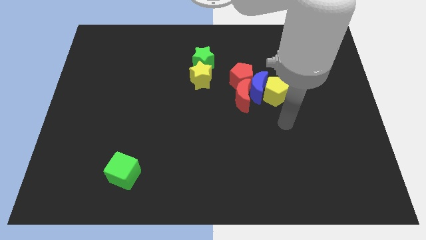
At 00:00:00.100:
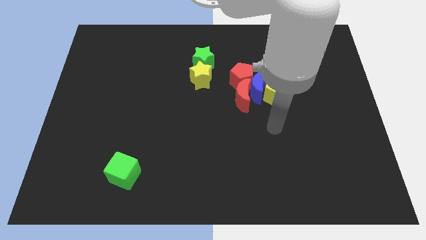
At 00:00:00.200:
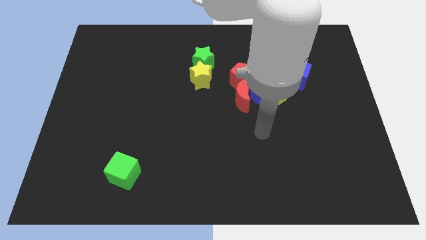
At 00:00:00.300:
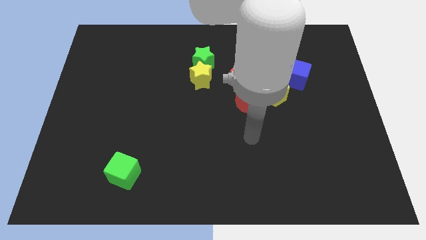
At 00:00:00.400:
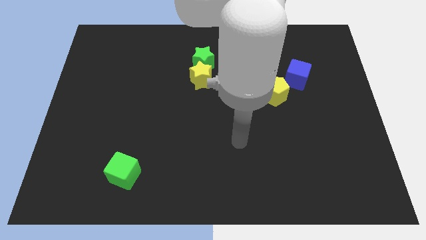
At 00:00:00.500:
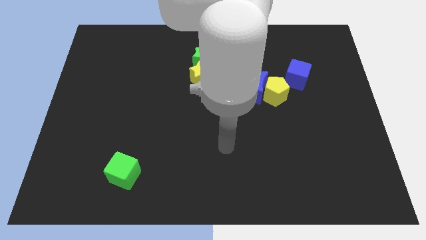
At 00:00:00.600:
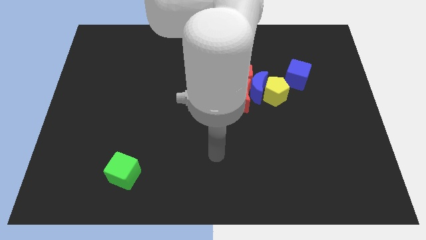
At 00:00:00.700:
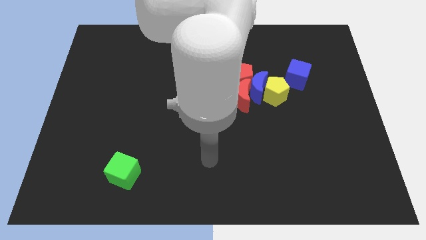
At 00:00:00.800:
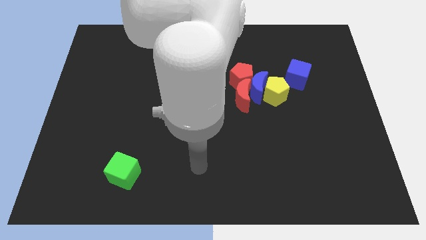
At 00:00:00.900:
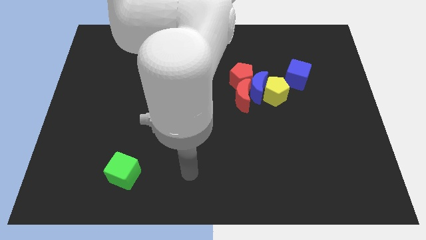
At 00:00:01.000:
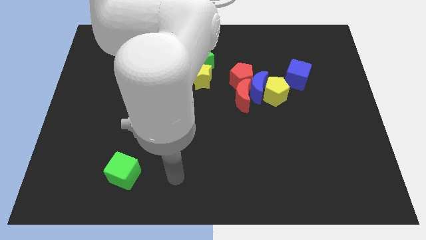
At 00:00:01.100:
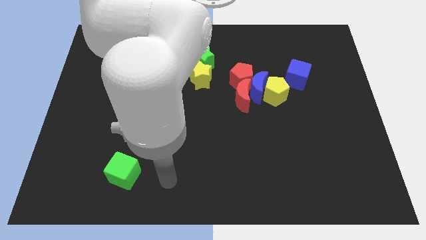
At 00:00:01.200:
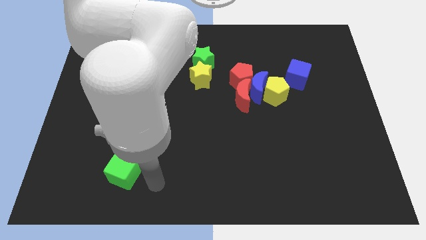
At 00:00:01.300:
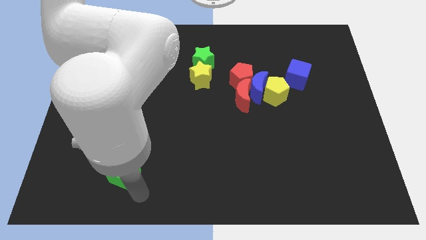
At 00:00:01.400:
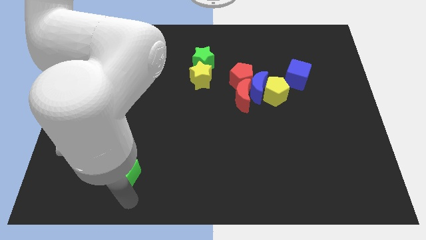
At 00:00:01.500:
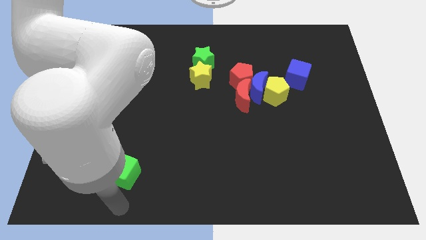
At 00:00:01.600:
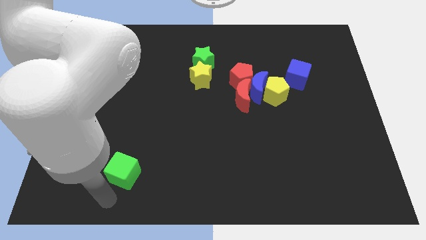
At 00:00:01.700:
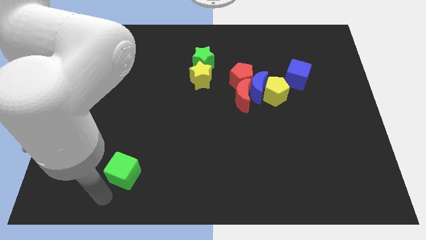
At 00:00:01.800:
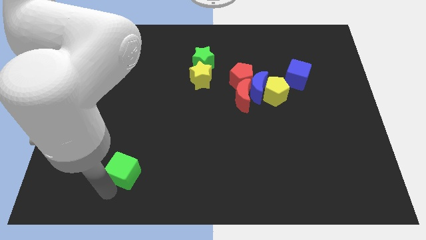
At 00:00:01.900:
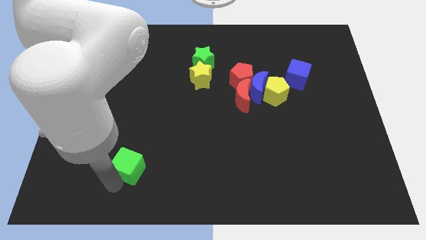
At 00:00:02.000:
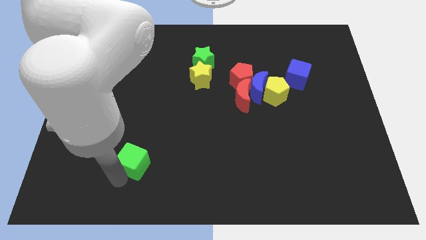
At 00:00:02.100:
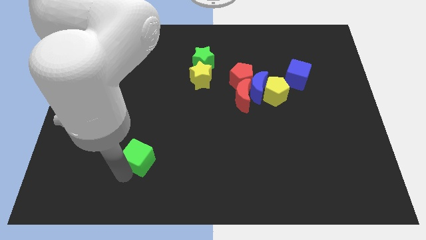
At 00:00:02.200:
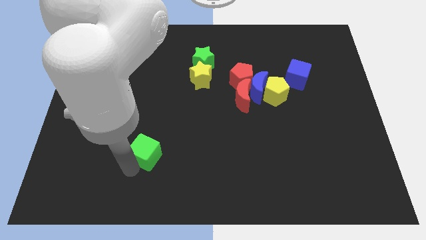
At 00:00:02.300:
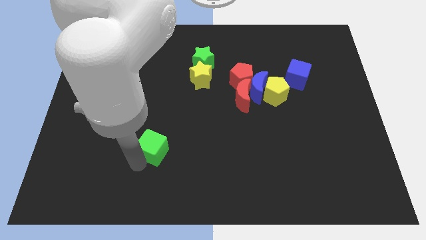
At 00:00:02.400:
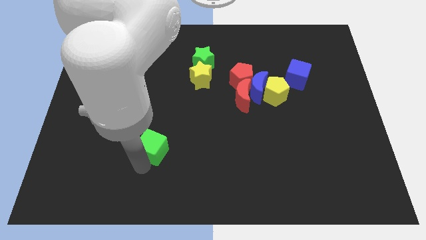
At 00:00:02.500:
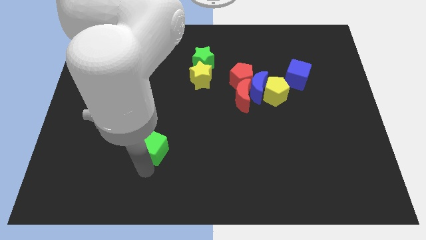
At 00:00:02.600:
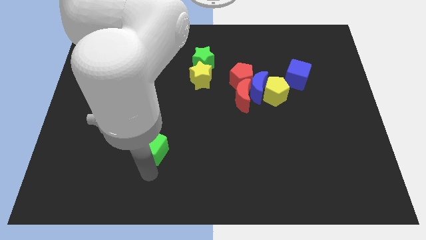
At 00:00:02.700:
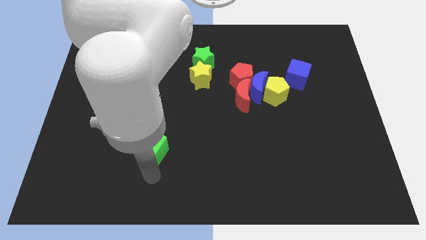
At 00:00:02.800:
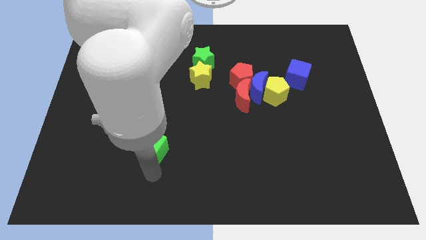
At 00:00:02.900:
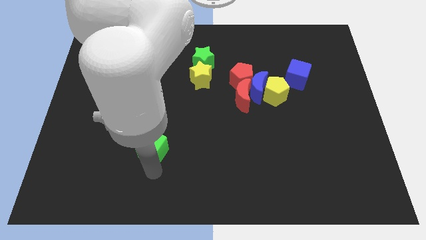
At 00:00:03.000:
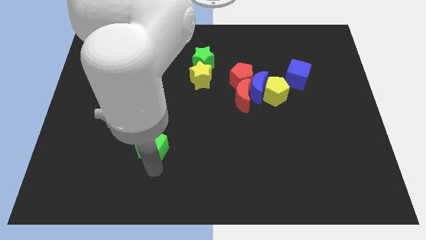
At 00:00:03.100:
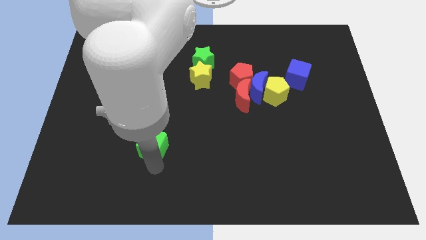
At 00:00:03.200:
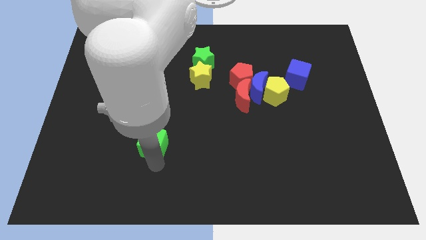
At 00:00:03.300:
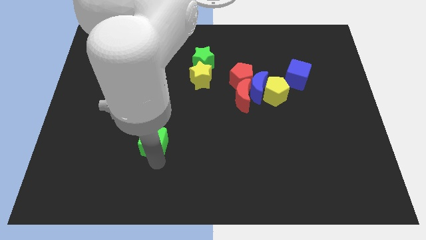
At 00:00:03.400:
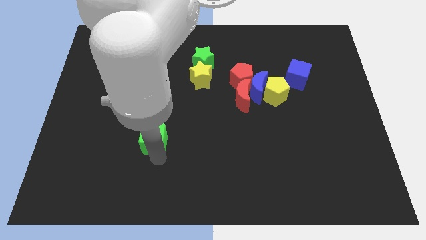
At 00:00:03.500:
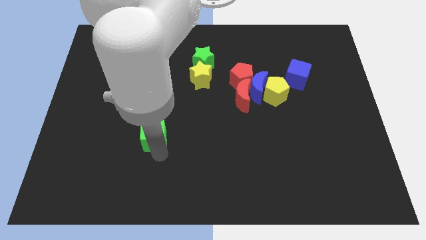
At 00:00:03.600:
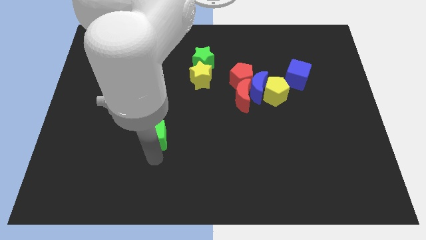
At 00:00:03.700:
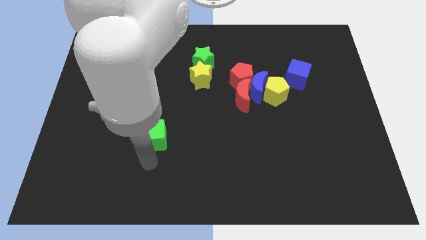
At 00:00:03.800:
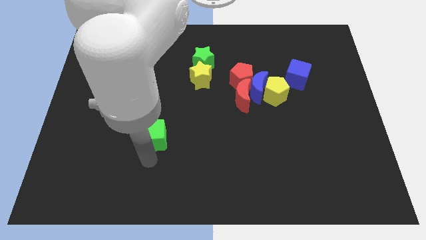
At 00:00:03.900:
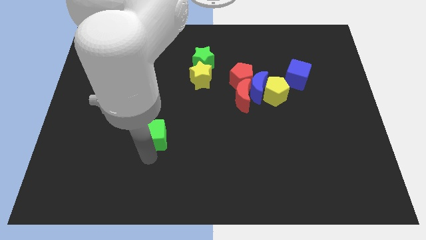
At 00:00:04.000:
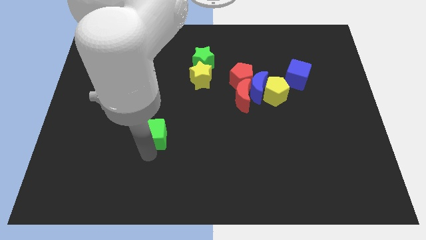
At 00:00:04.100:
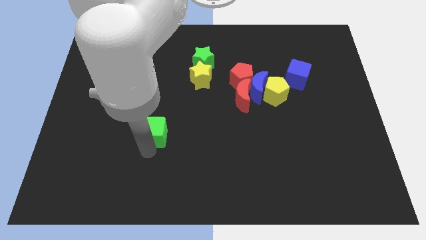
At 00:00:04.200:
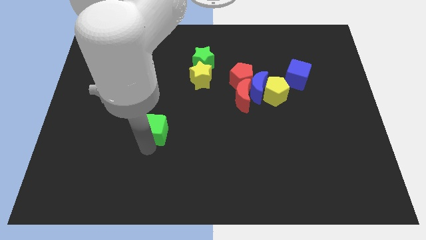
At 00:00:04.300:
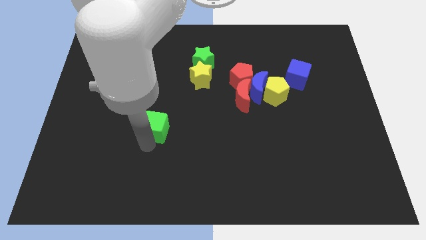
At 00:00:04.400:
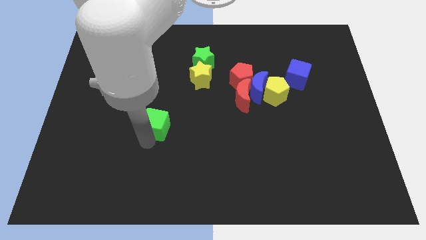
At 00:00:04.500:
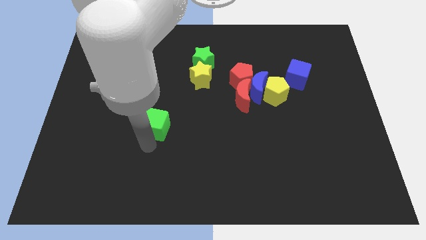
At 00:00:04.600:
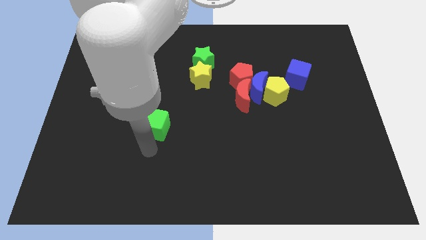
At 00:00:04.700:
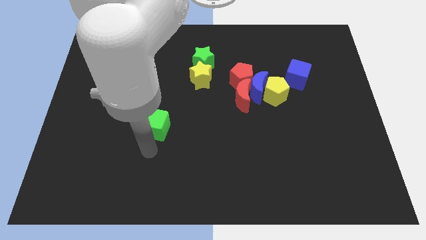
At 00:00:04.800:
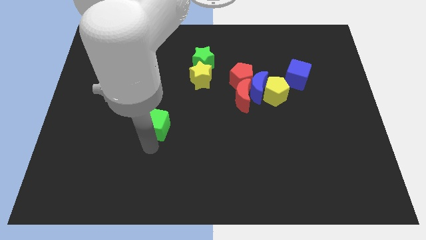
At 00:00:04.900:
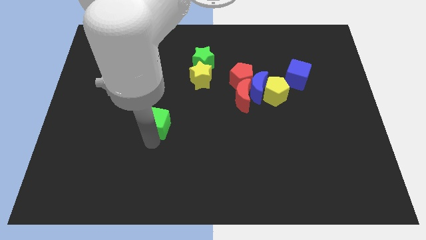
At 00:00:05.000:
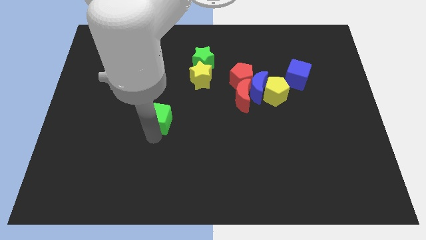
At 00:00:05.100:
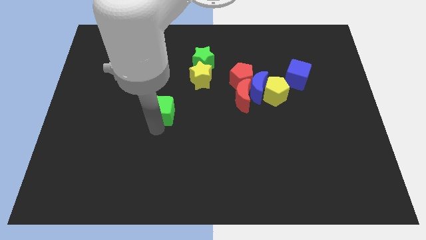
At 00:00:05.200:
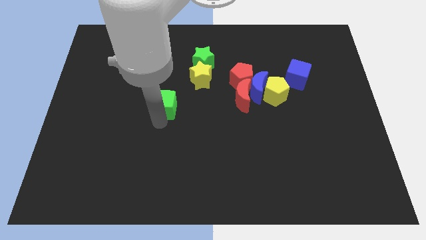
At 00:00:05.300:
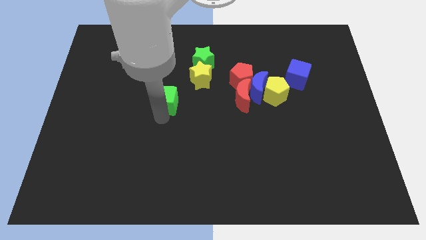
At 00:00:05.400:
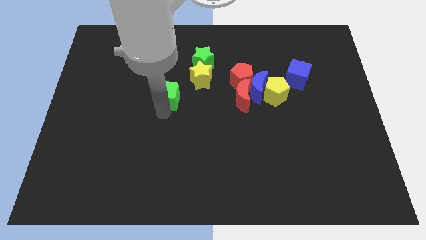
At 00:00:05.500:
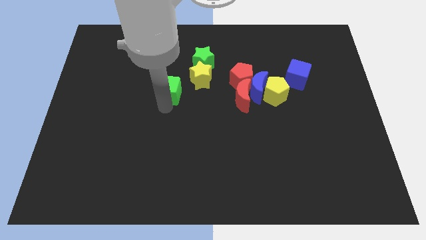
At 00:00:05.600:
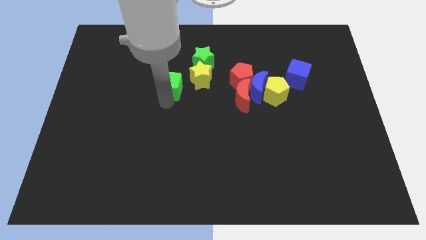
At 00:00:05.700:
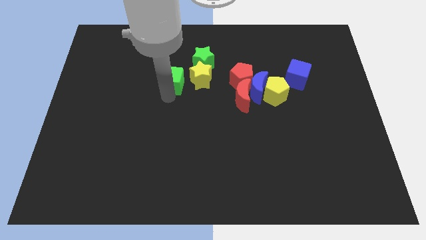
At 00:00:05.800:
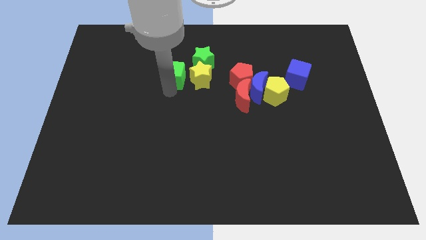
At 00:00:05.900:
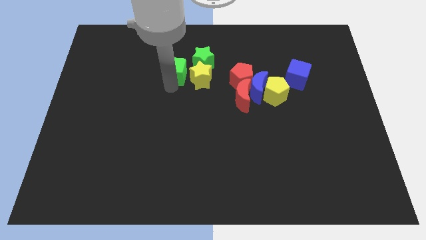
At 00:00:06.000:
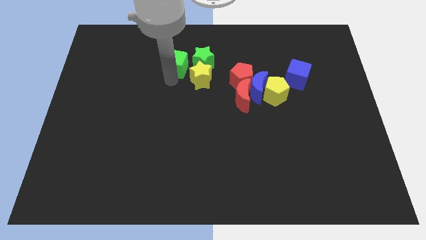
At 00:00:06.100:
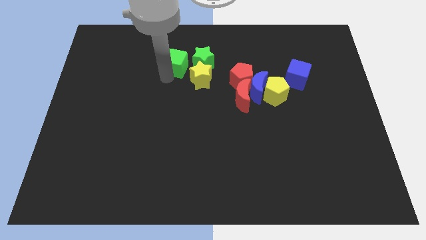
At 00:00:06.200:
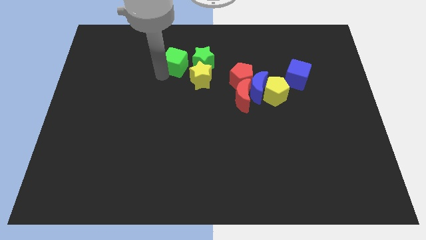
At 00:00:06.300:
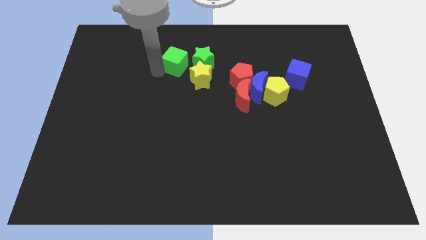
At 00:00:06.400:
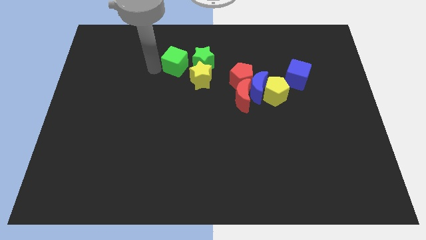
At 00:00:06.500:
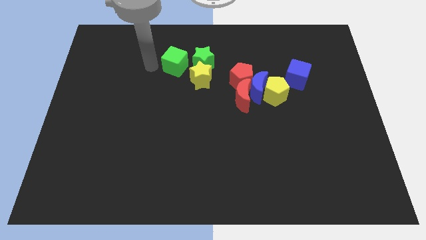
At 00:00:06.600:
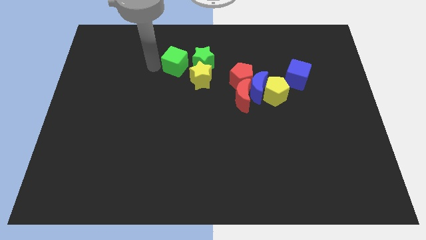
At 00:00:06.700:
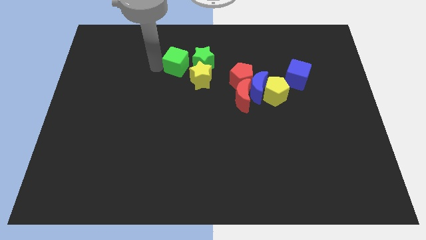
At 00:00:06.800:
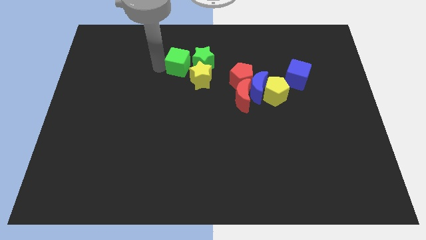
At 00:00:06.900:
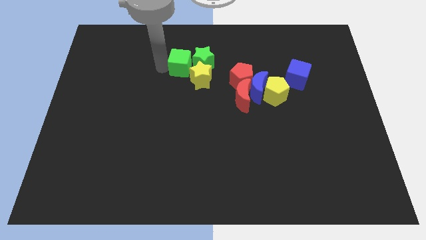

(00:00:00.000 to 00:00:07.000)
move the green cube towards the green star
